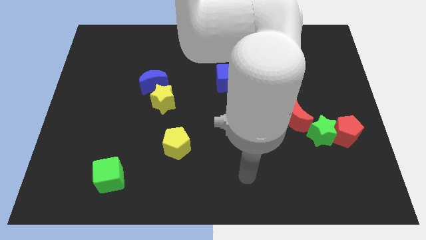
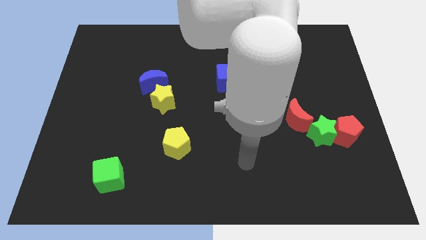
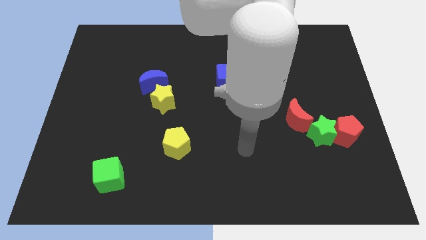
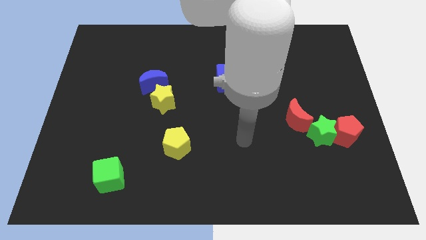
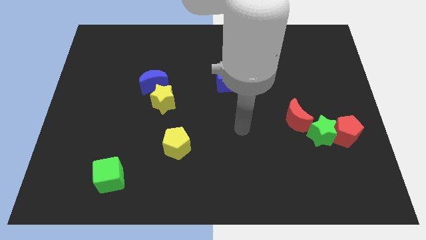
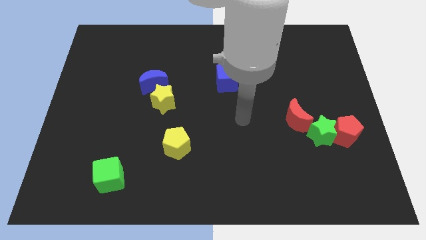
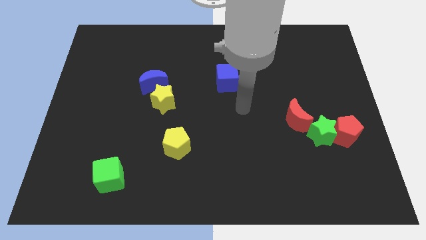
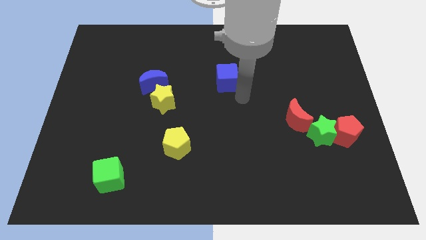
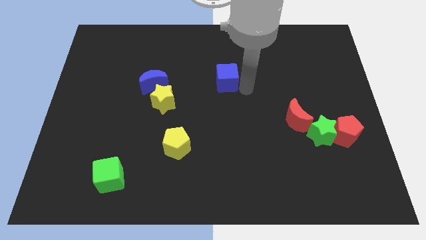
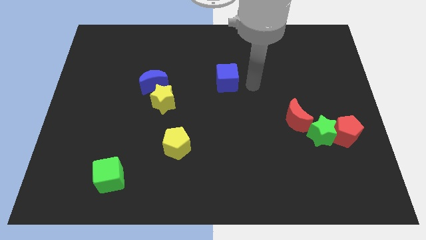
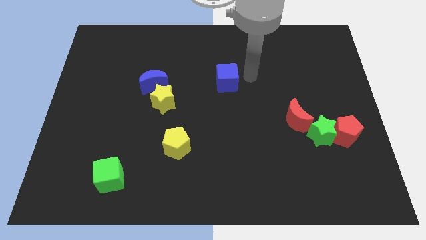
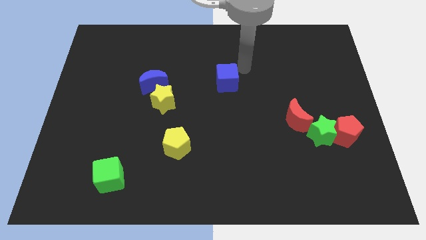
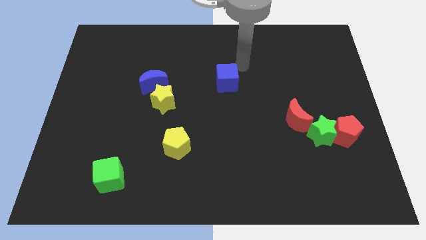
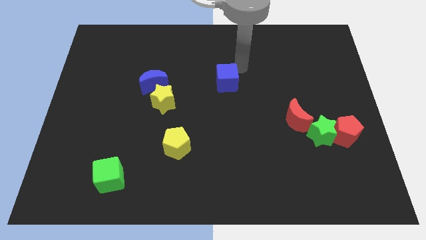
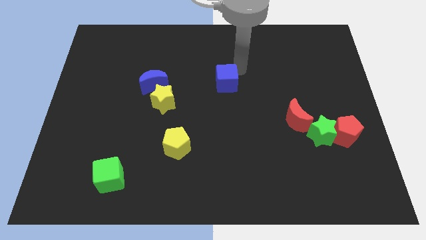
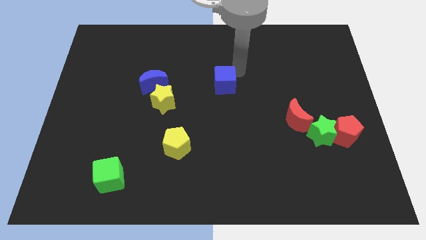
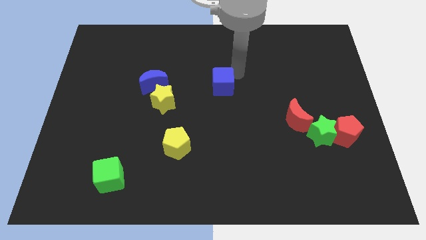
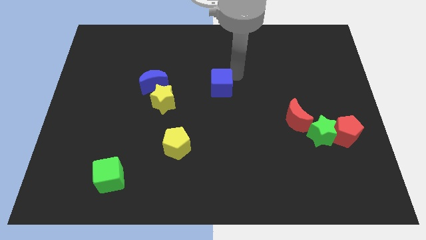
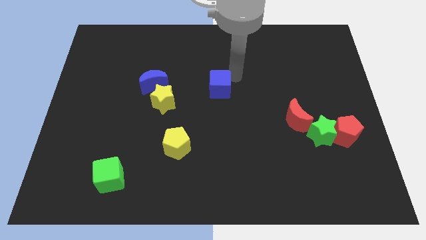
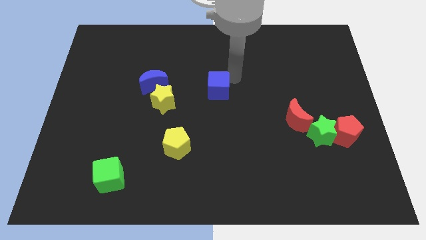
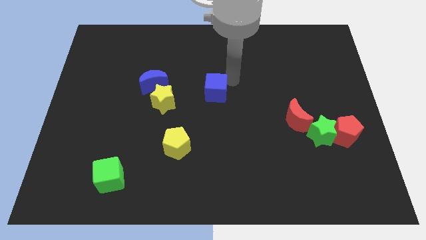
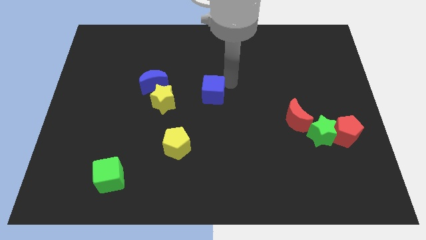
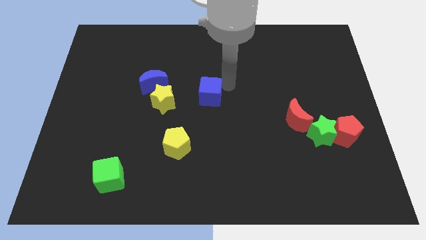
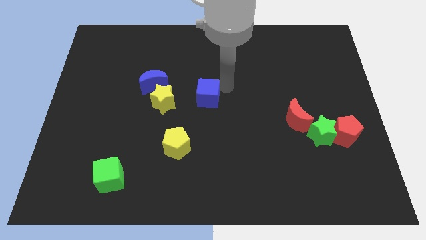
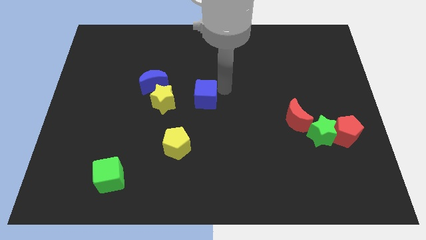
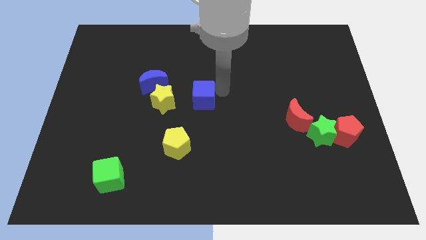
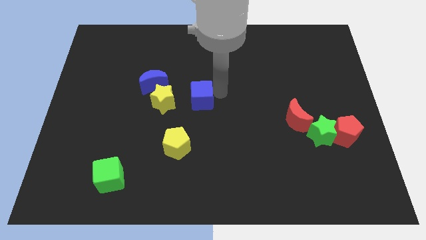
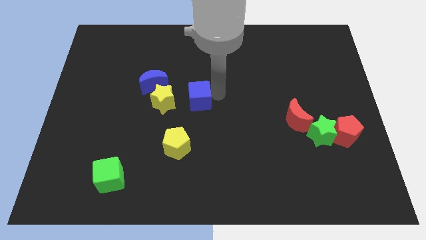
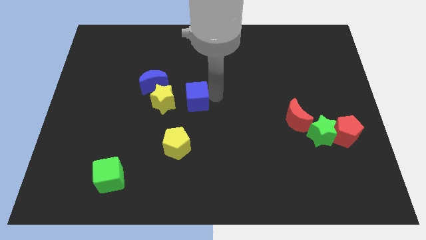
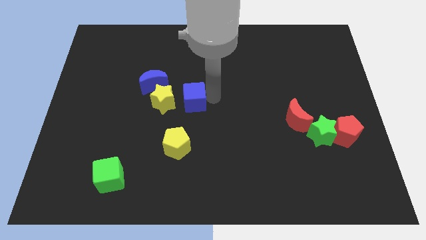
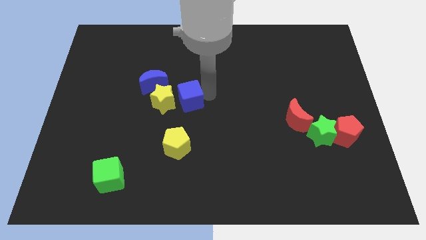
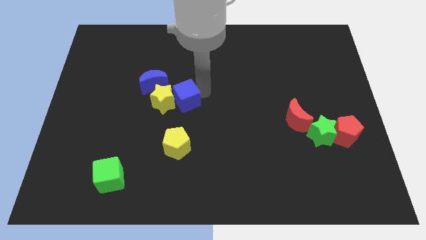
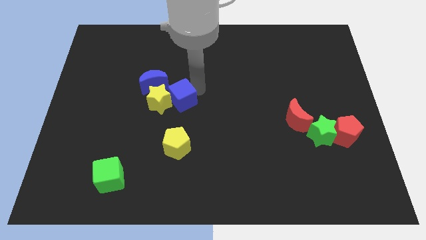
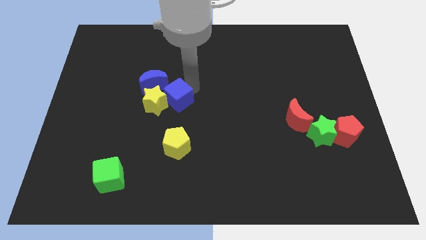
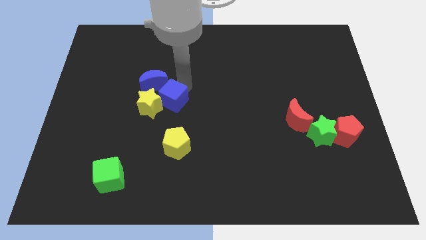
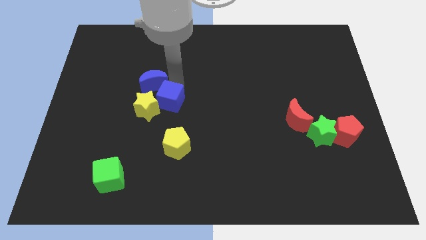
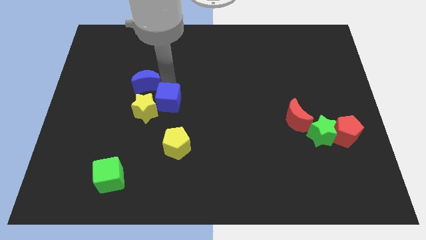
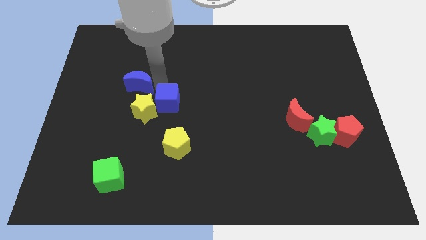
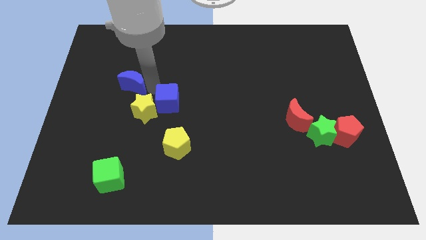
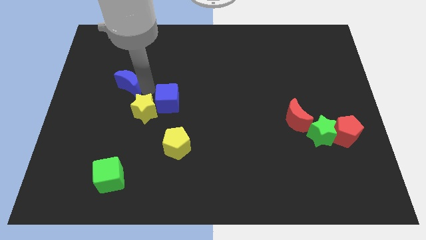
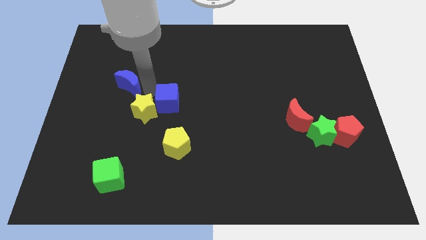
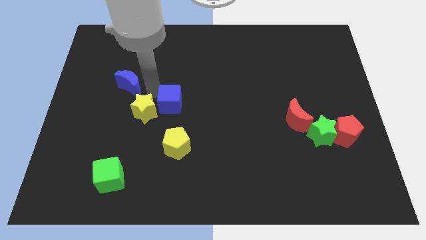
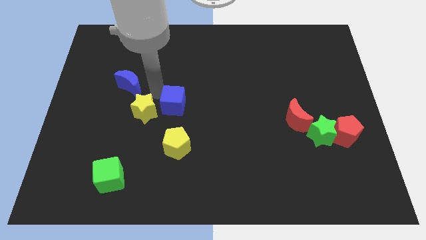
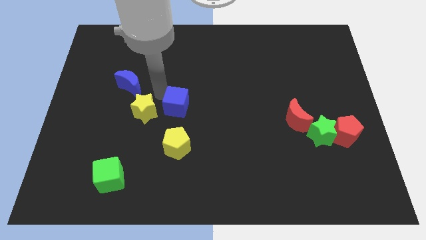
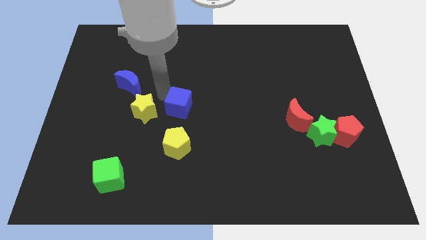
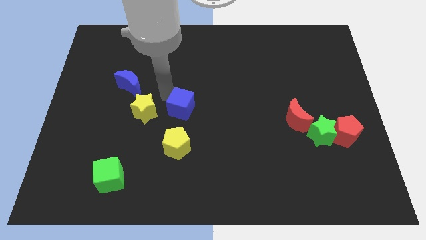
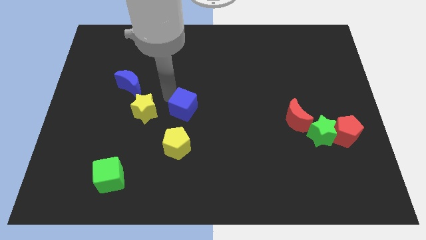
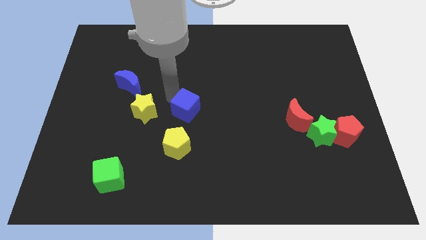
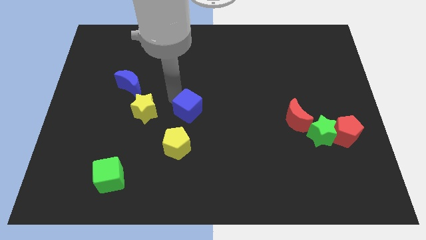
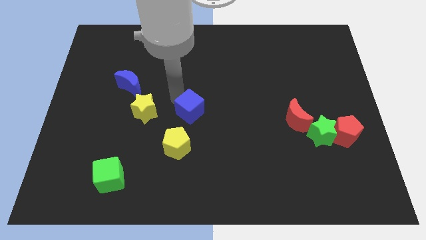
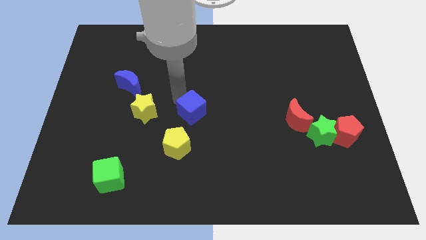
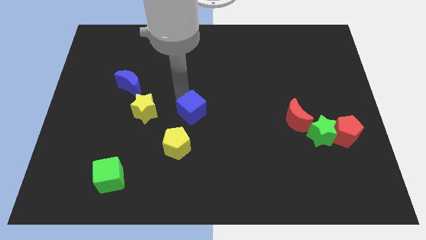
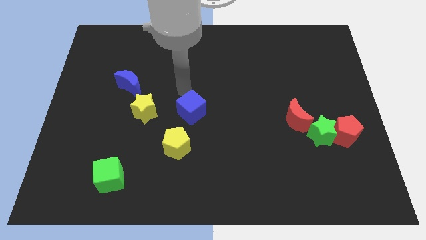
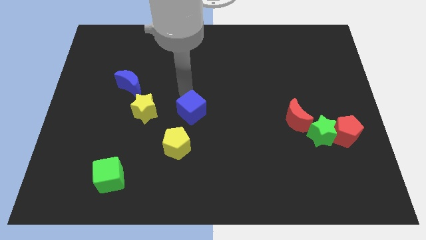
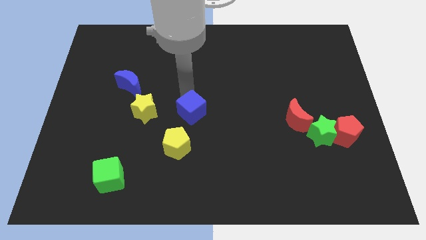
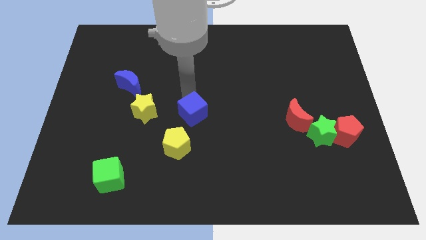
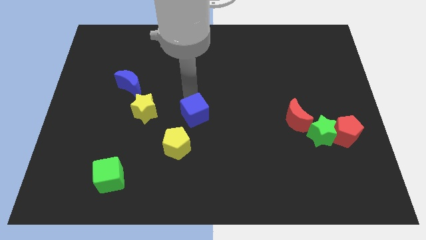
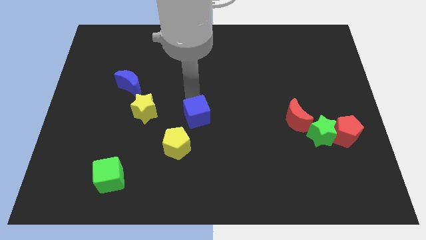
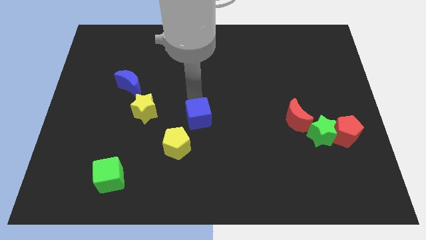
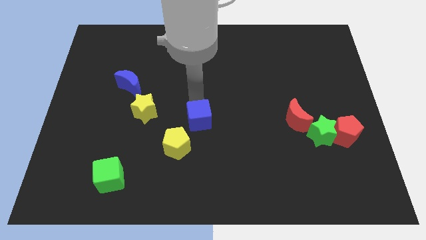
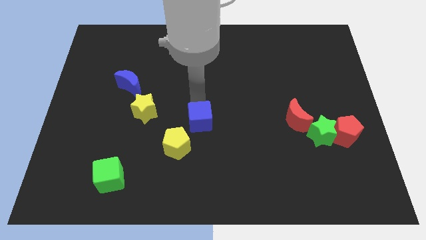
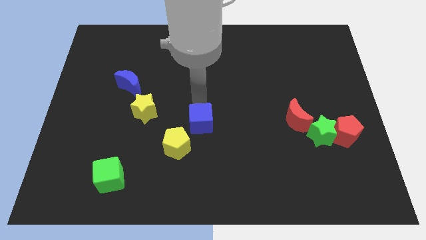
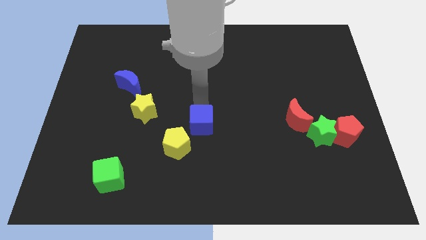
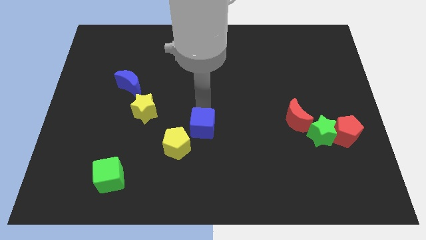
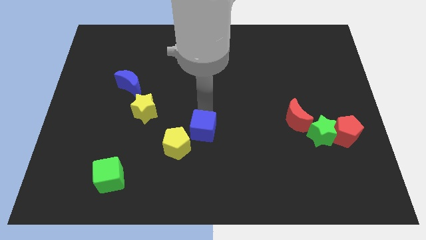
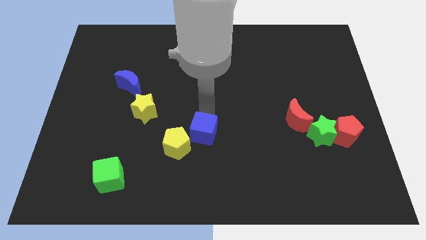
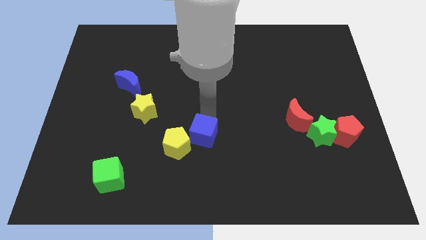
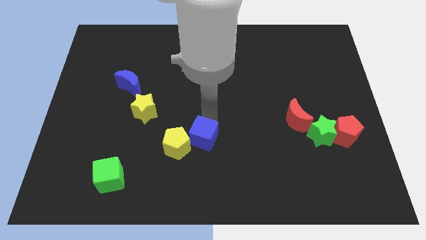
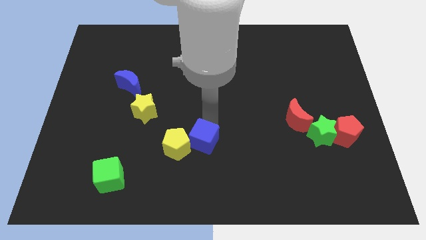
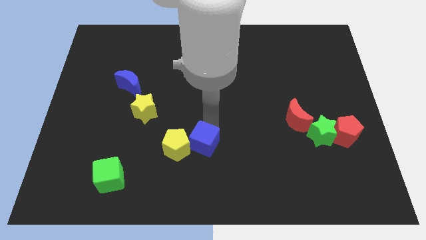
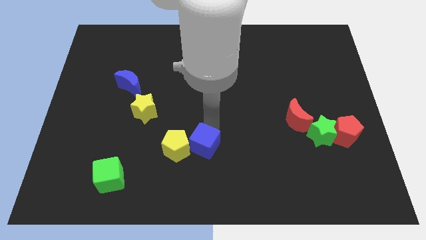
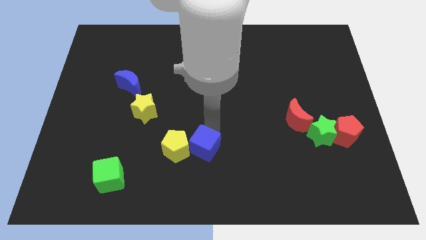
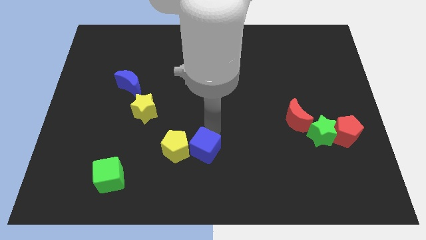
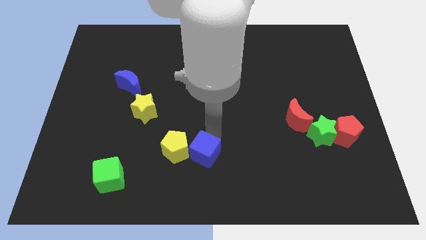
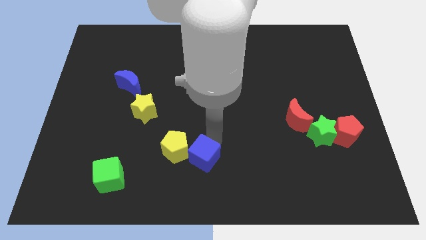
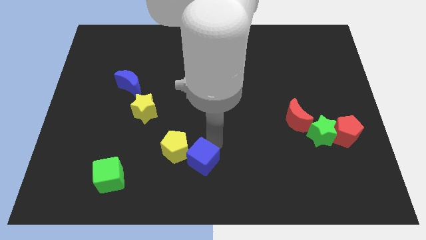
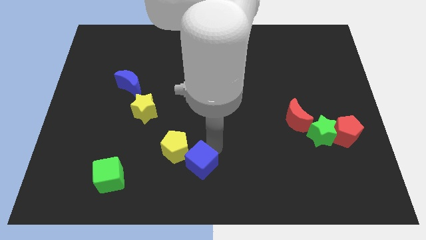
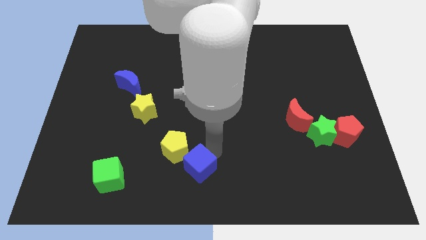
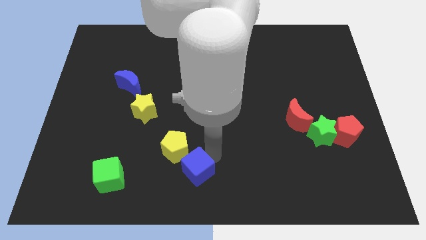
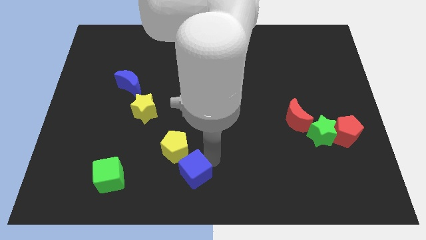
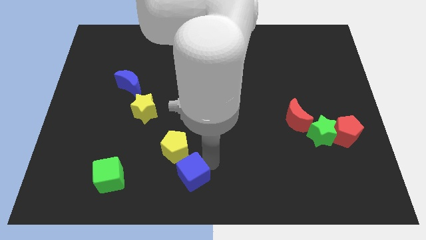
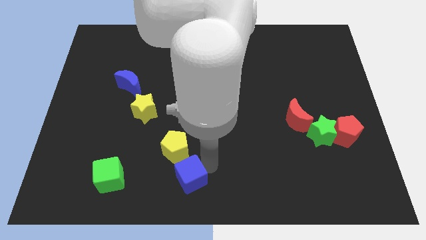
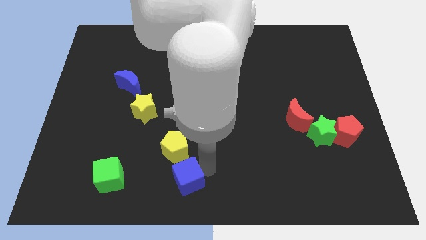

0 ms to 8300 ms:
move the blue cube to the right of the green cube
